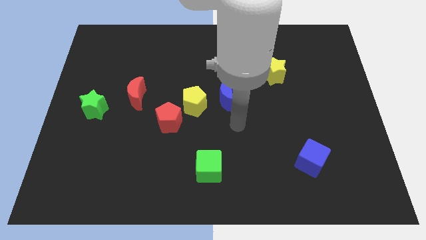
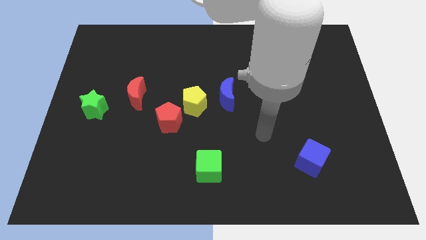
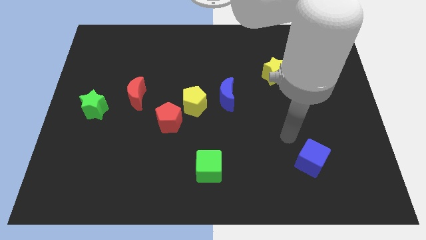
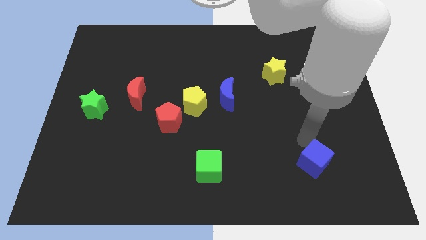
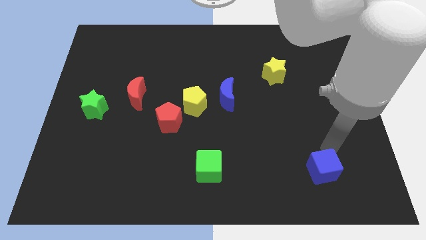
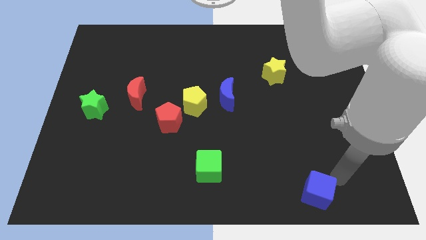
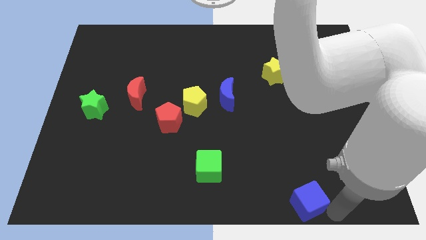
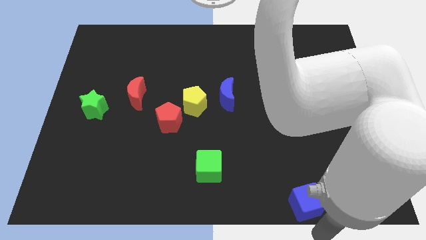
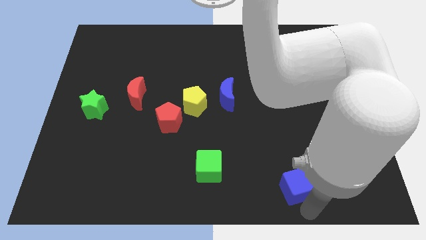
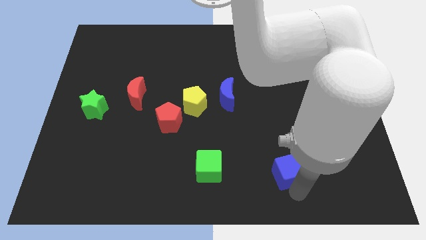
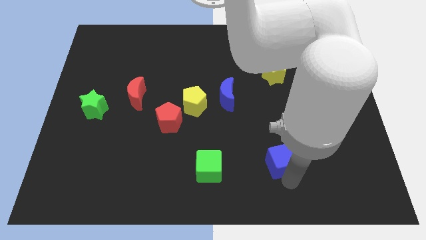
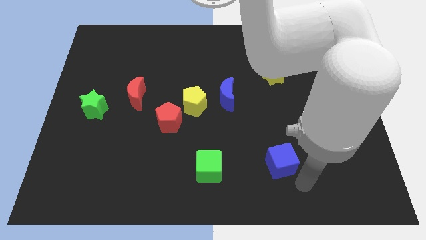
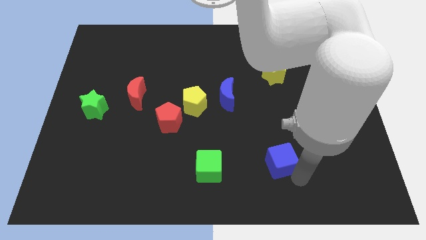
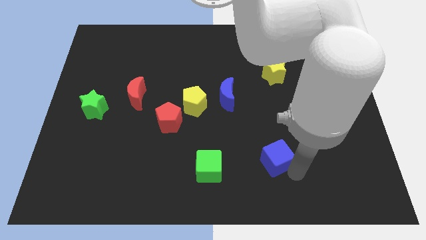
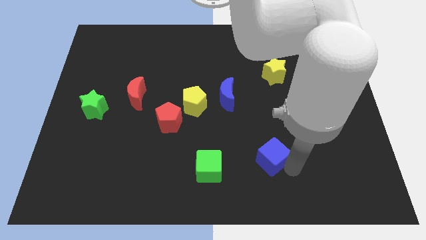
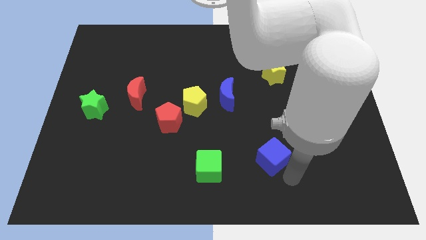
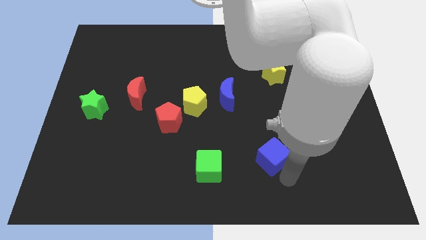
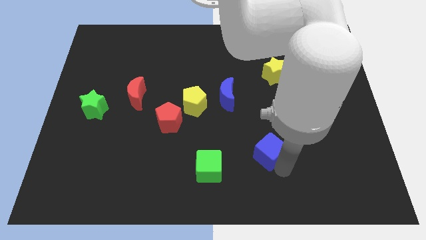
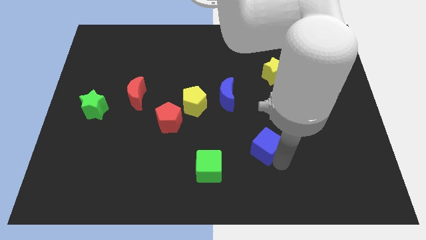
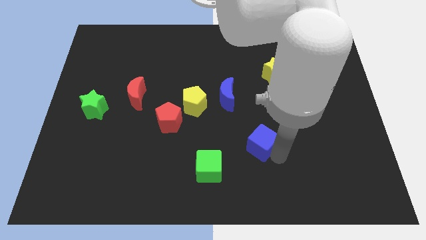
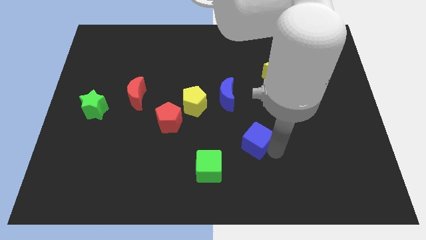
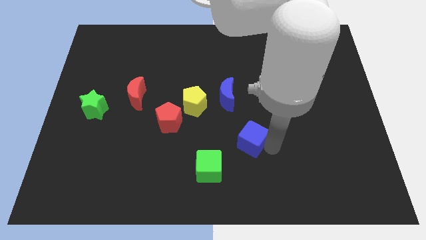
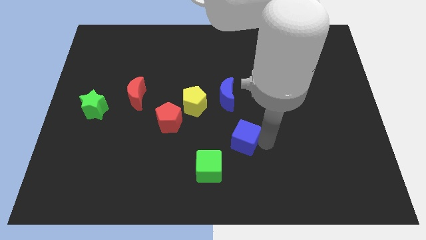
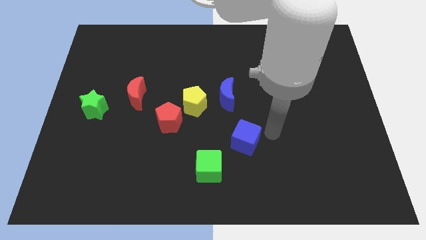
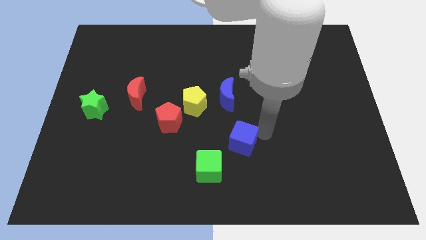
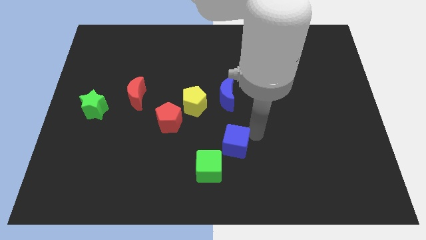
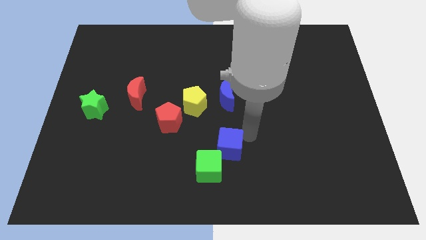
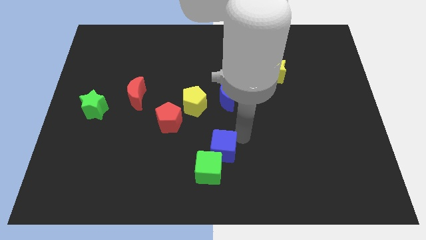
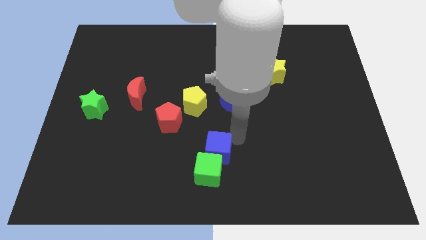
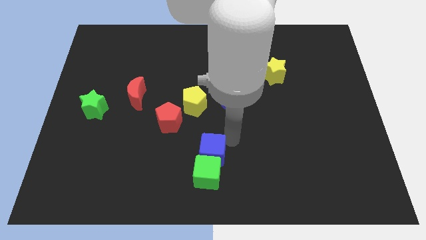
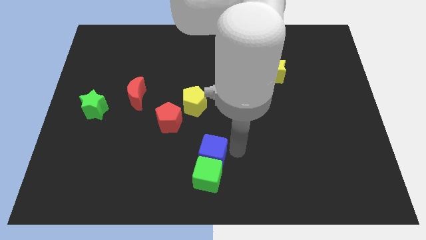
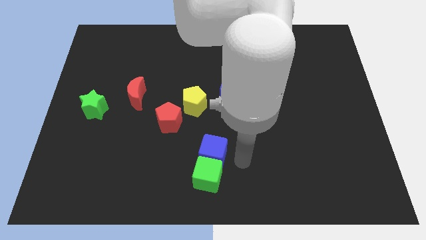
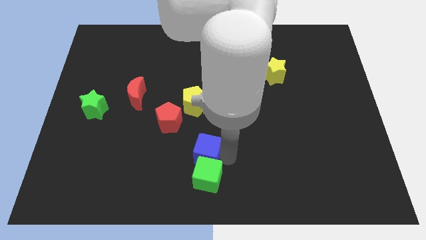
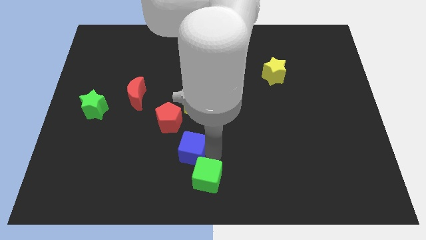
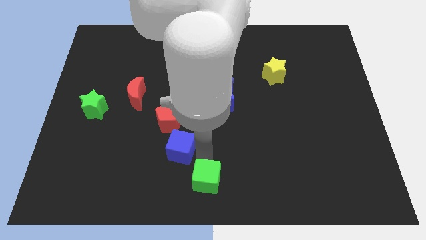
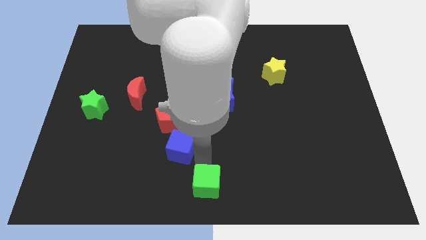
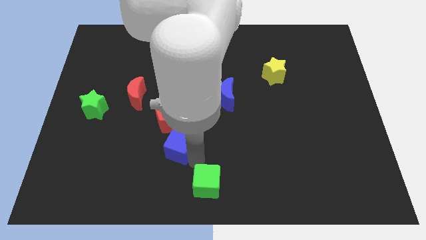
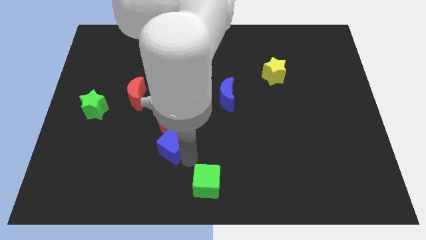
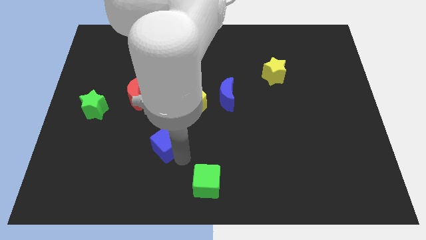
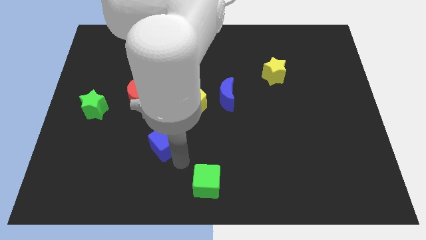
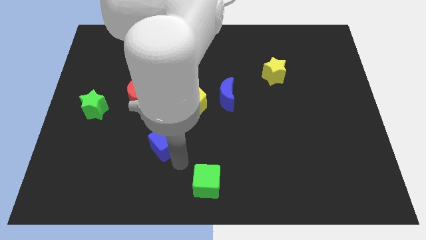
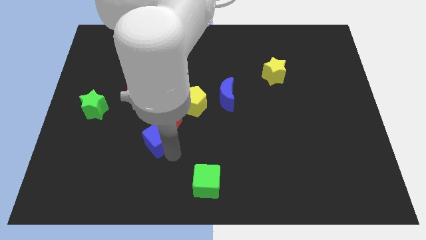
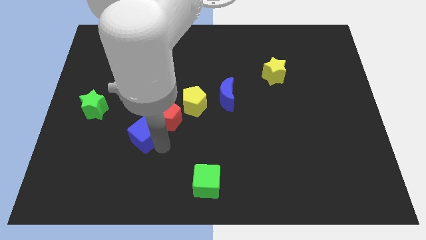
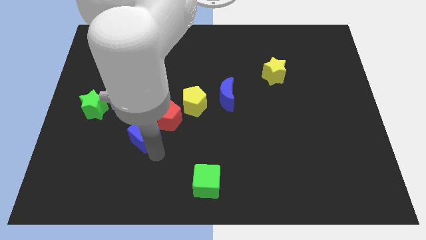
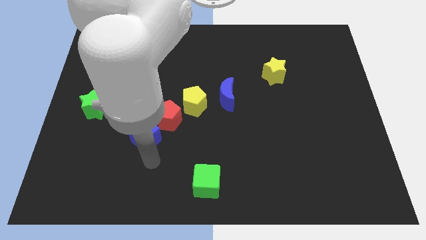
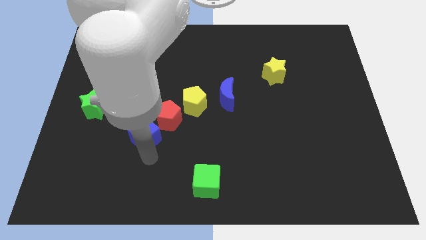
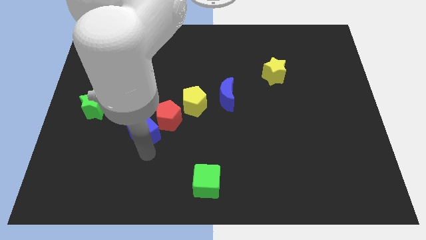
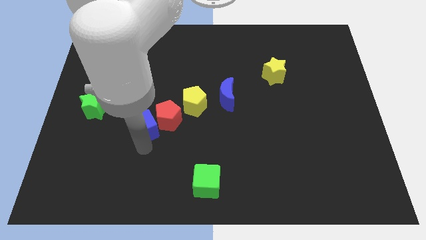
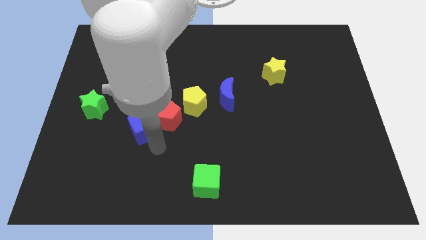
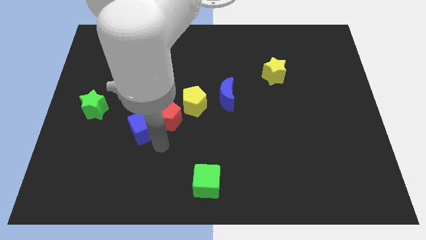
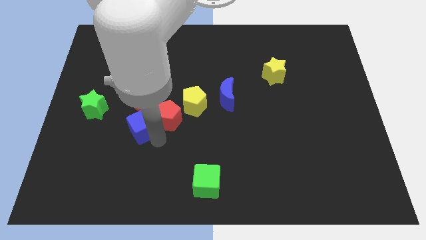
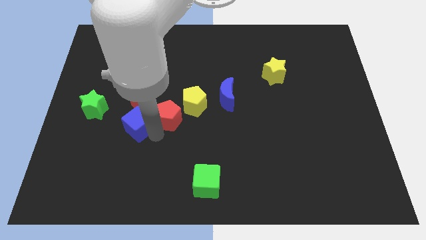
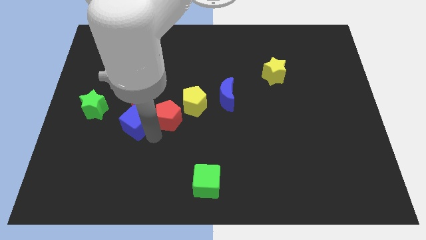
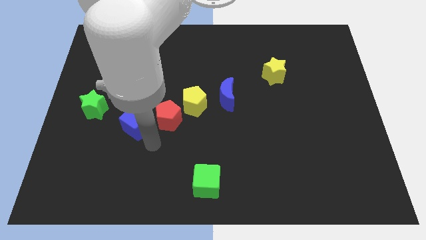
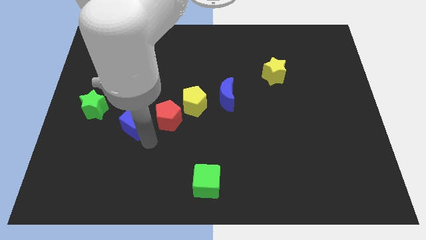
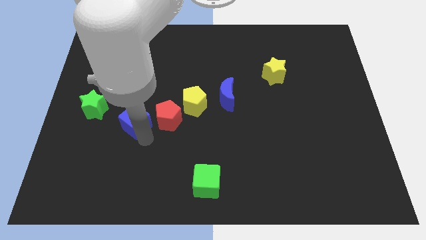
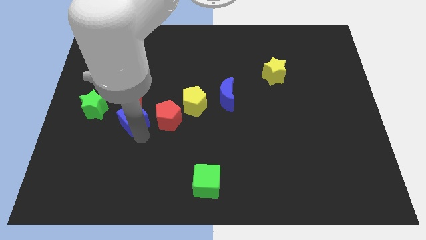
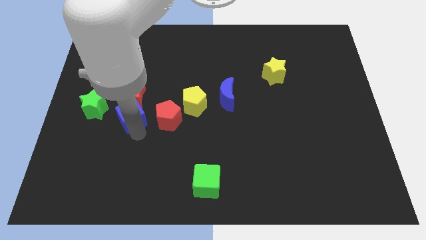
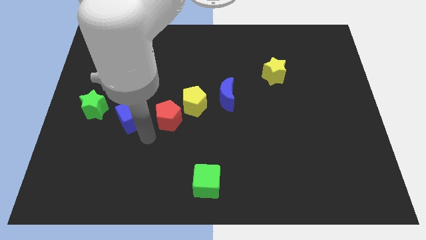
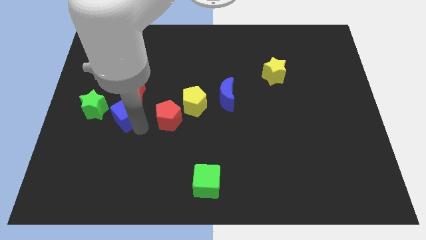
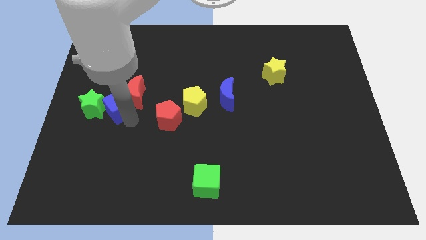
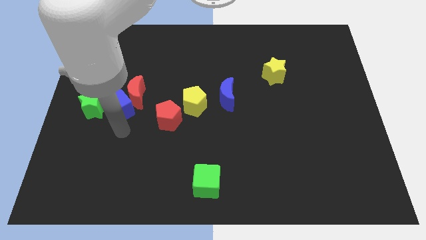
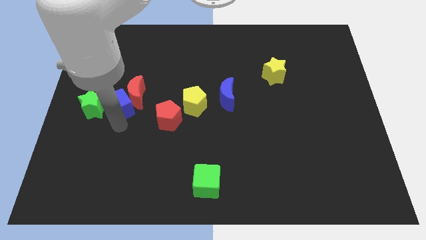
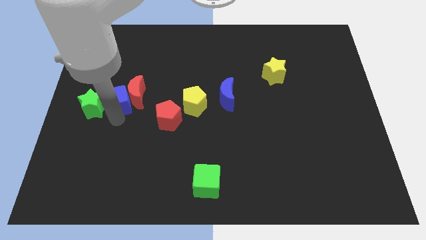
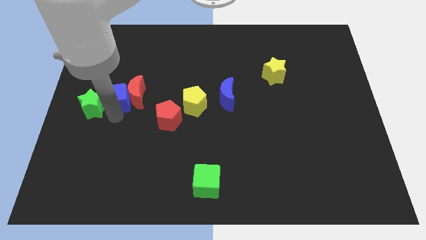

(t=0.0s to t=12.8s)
push the blue cube diagonally up and to the left of the red moon

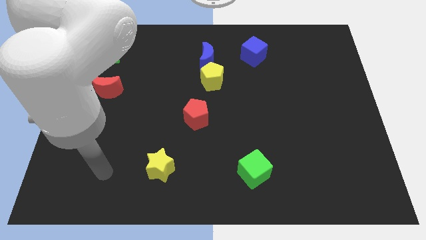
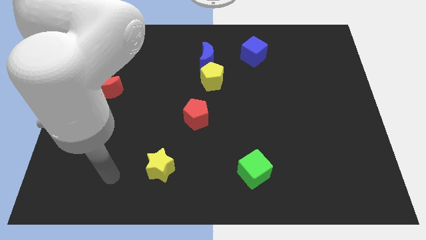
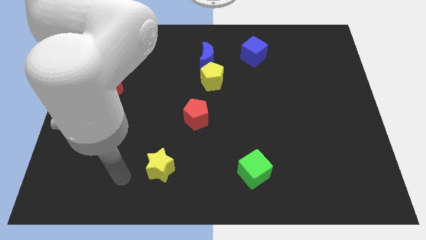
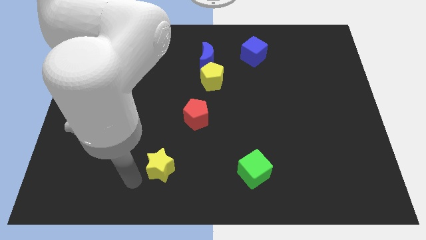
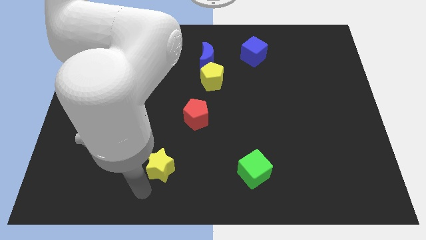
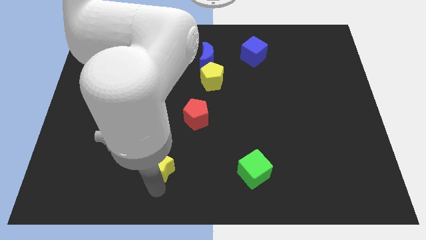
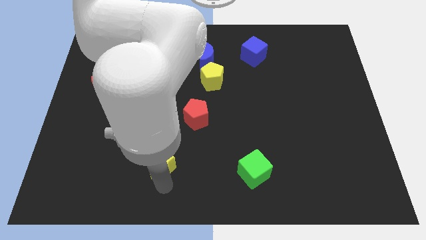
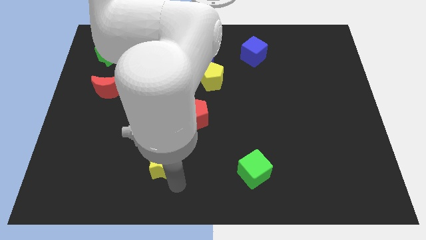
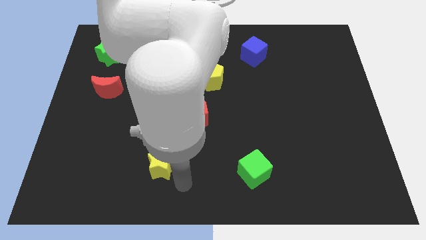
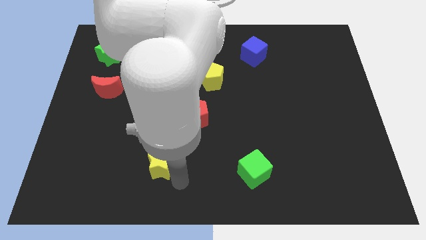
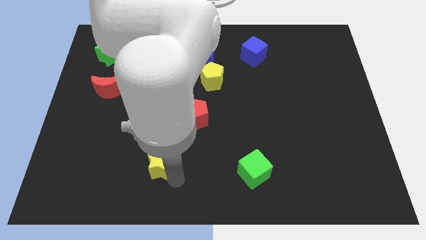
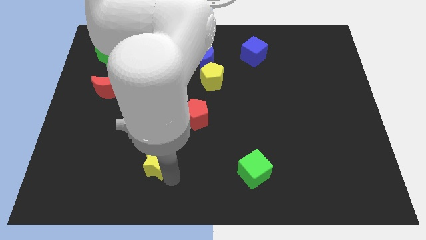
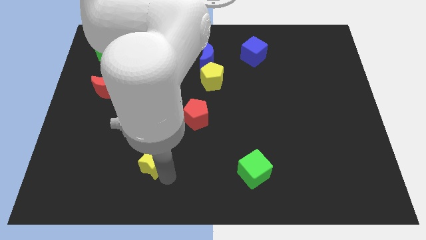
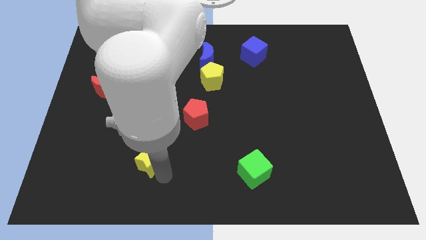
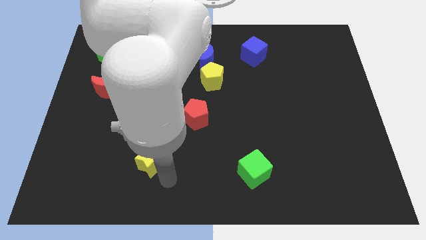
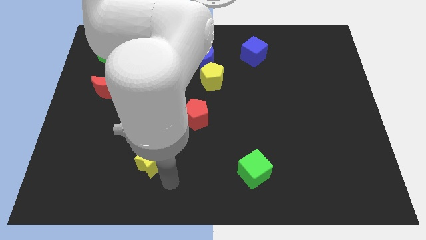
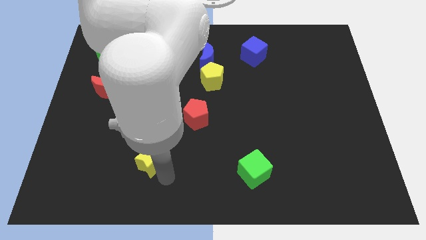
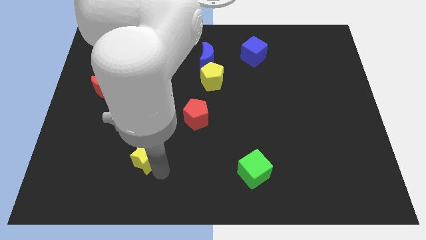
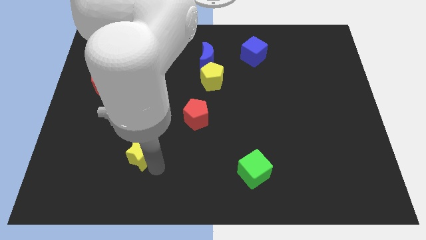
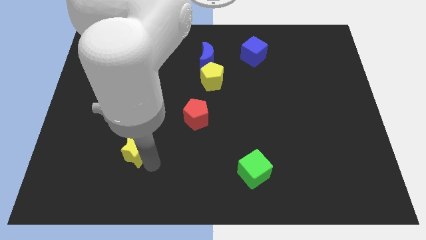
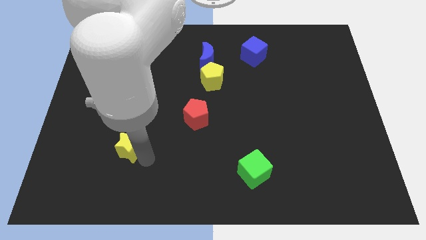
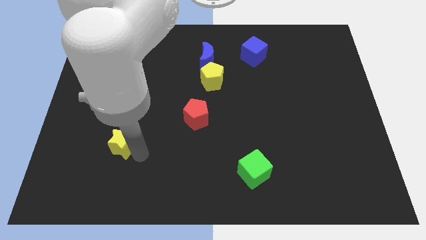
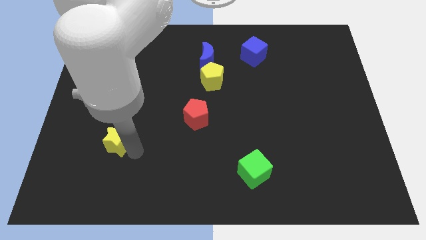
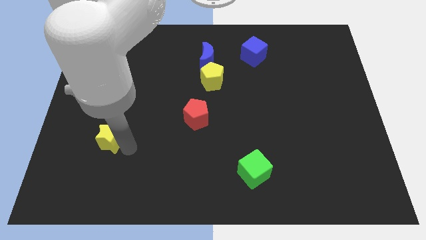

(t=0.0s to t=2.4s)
push the yellow star to the bottom side of the red moon
